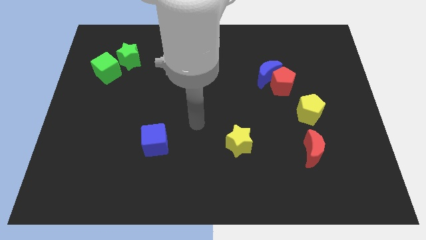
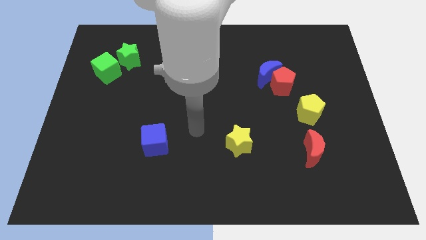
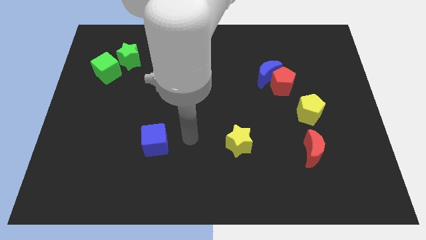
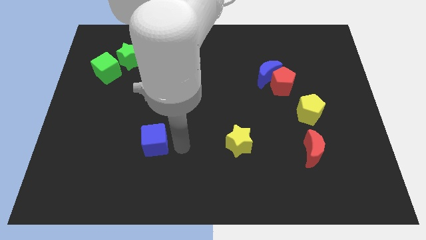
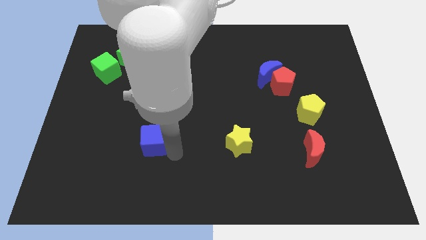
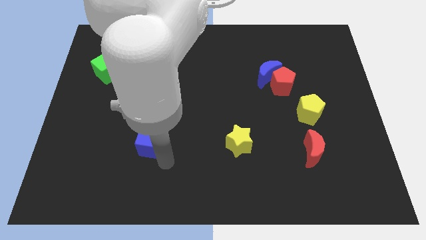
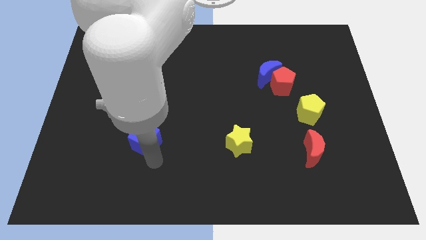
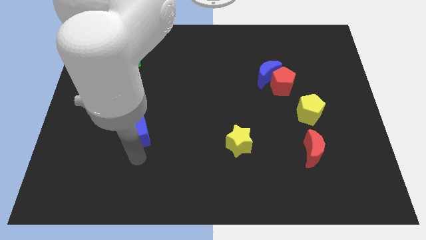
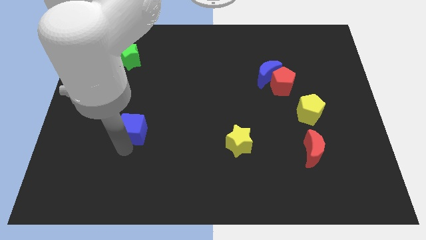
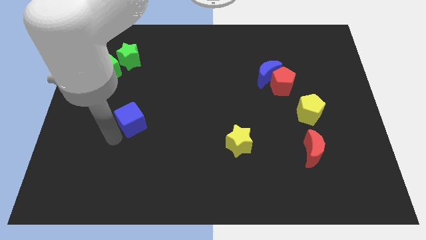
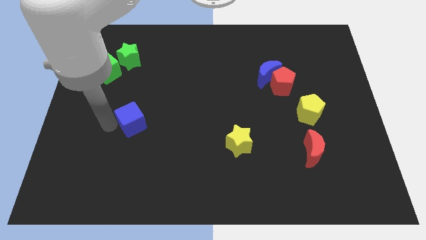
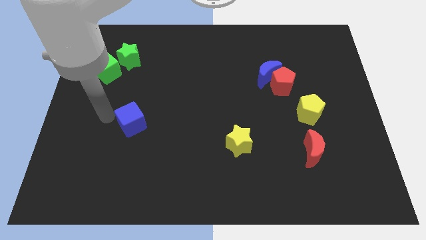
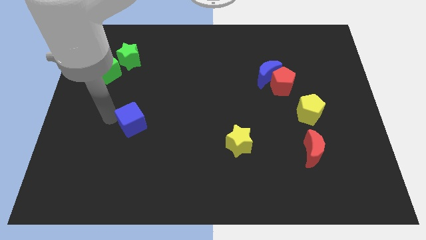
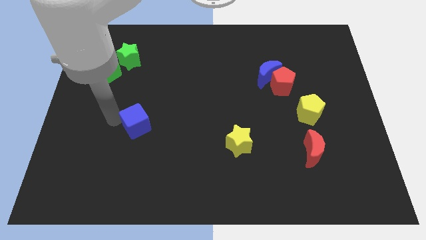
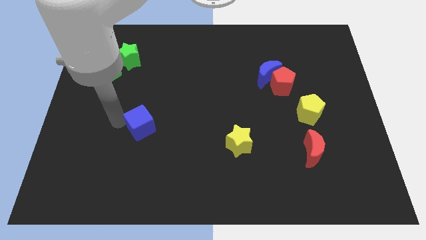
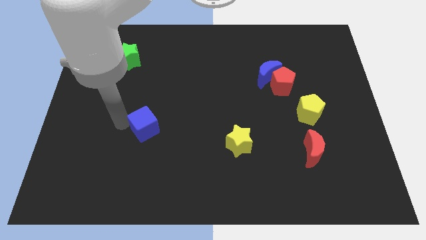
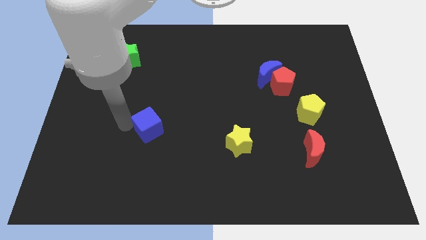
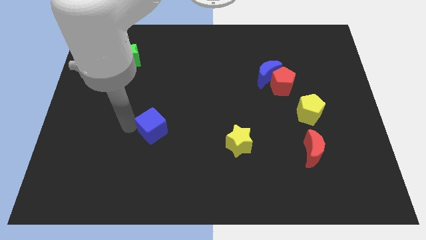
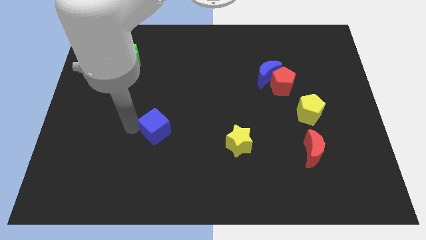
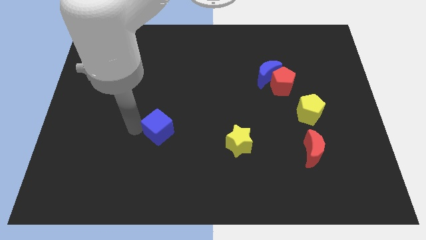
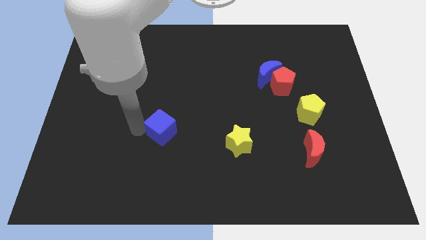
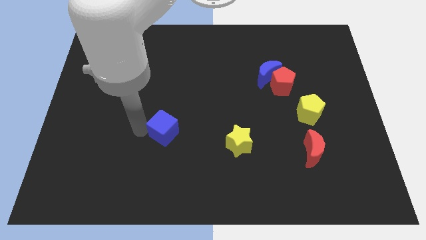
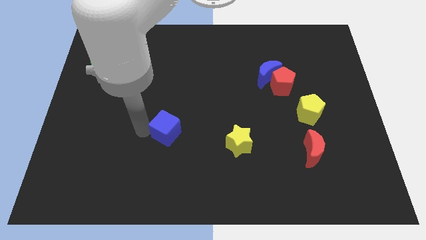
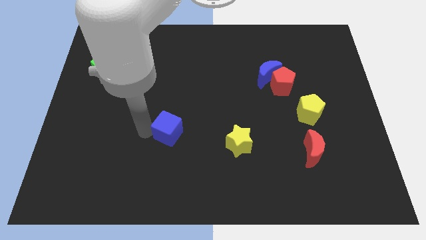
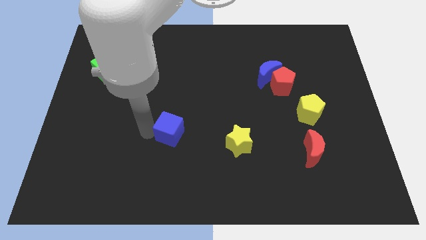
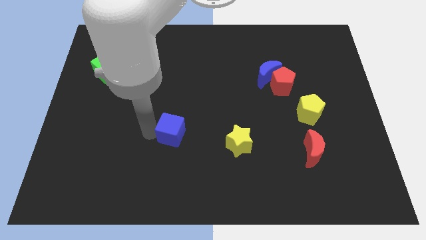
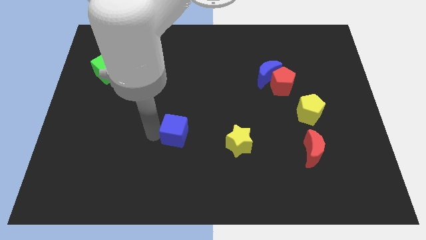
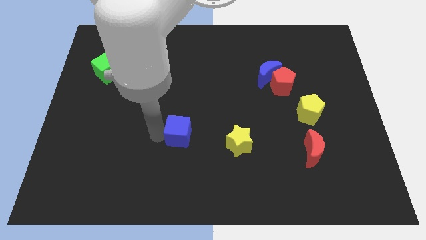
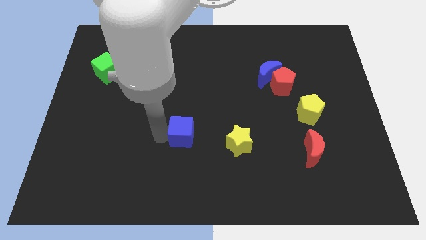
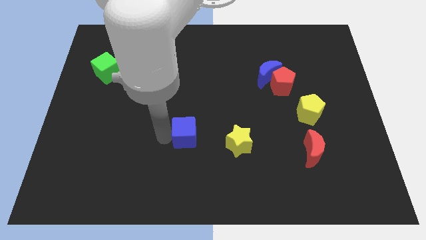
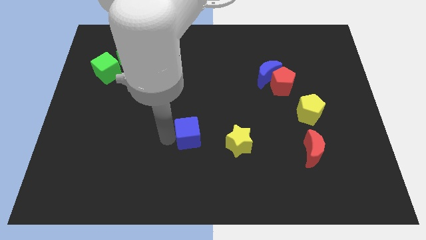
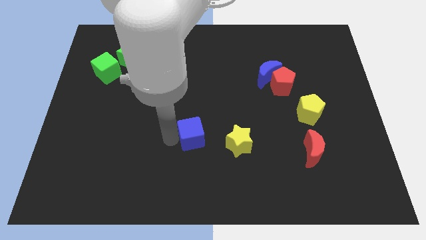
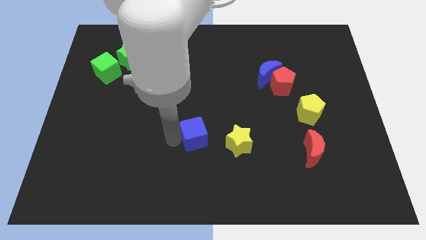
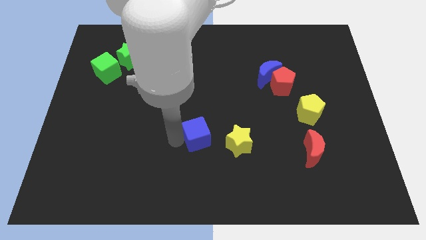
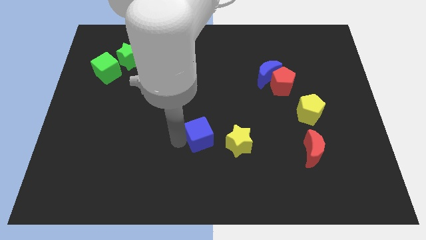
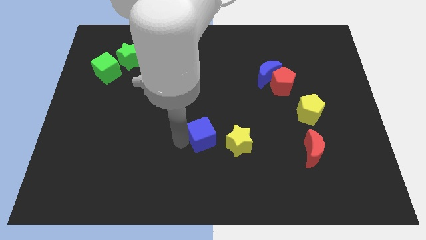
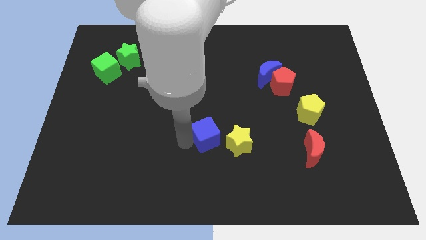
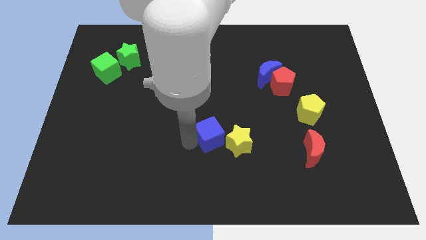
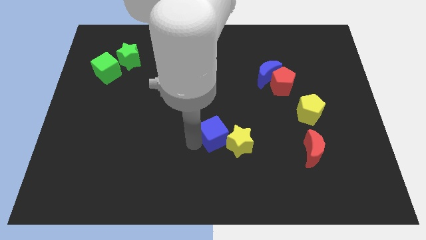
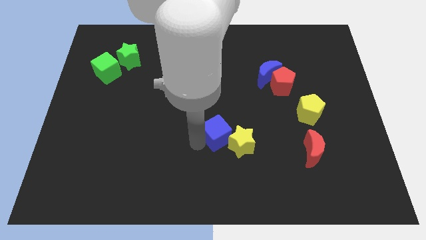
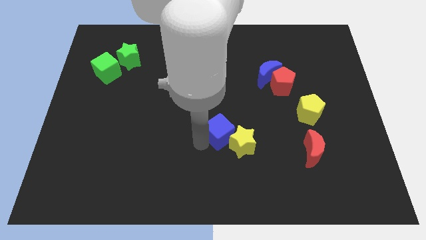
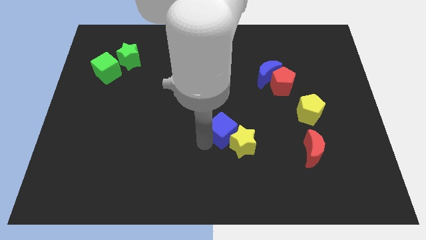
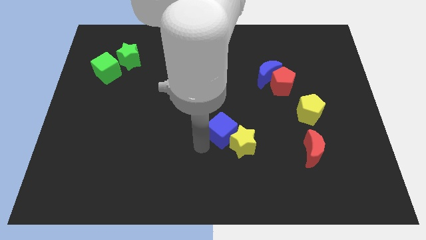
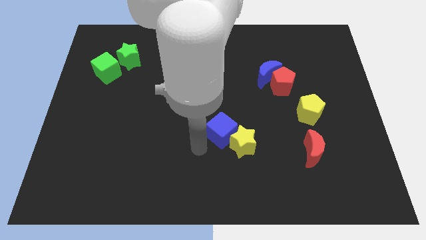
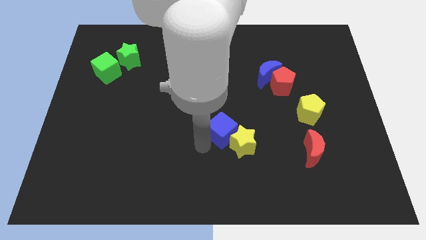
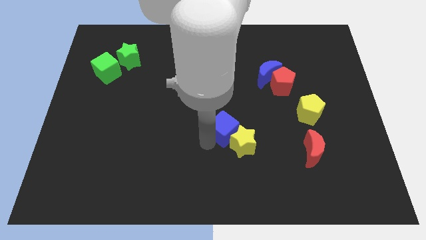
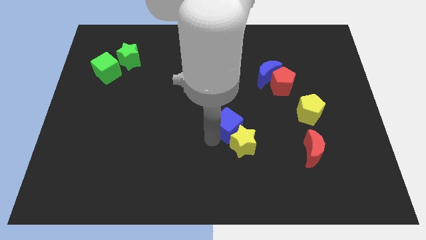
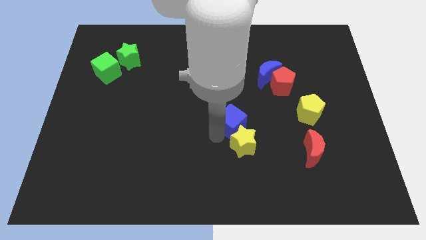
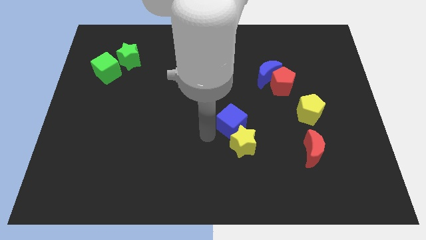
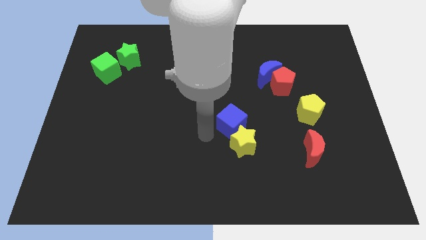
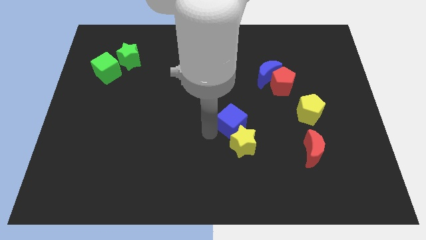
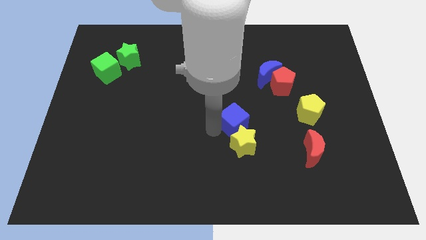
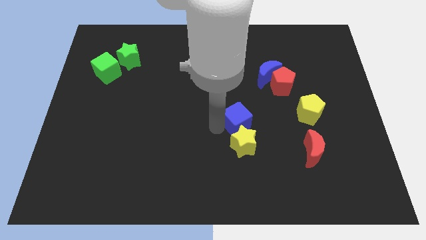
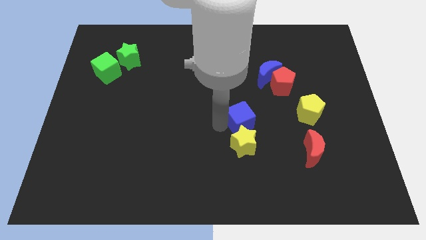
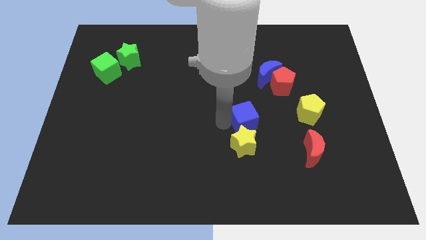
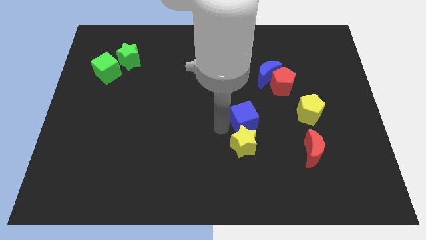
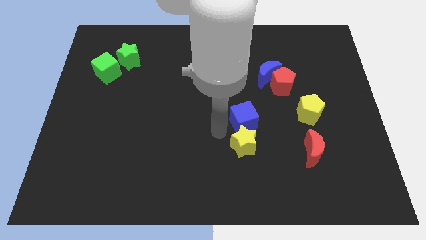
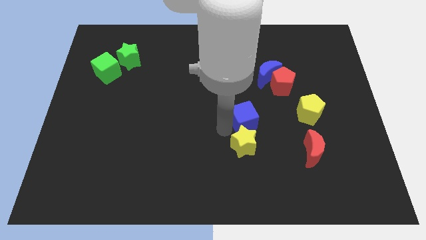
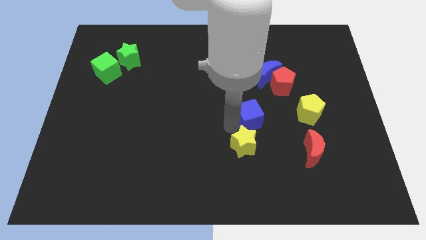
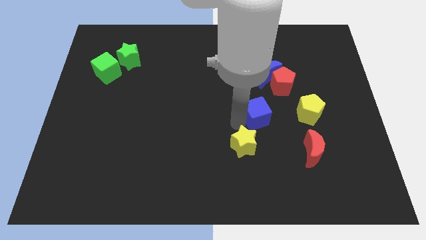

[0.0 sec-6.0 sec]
put the blue cube to the bottom side of the blue moon

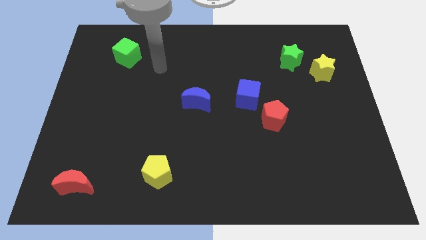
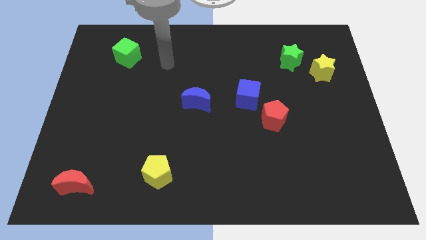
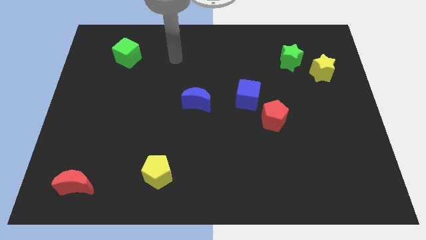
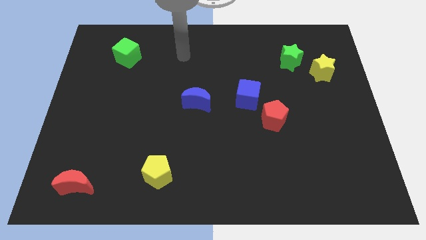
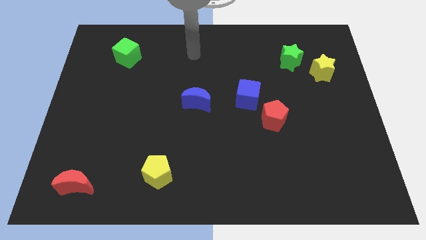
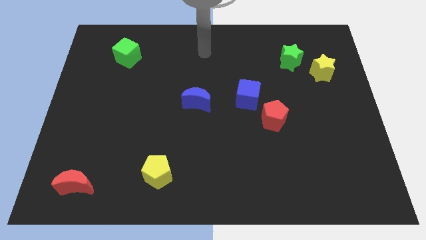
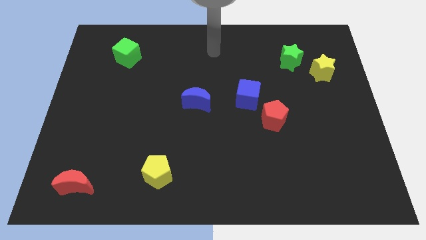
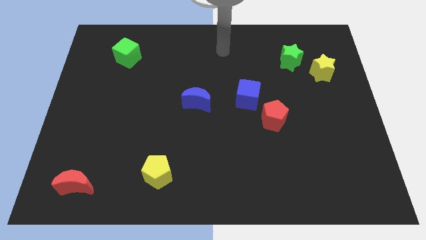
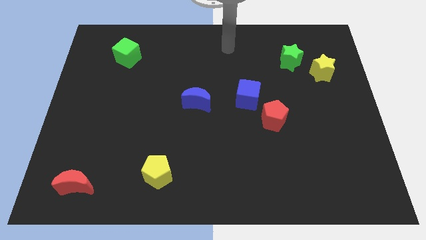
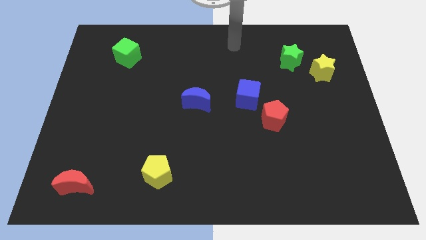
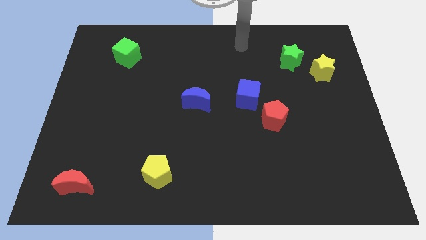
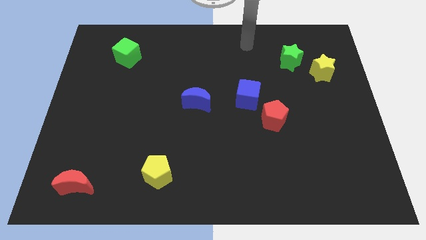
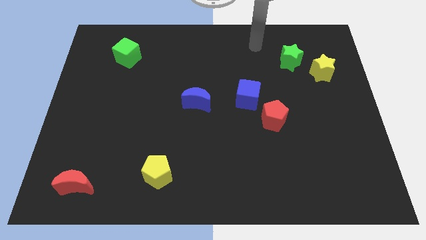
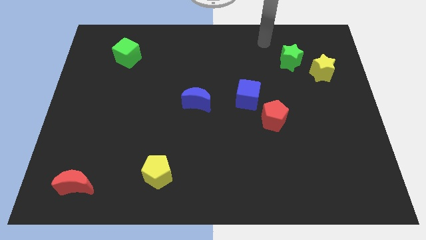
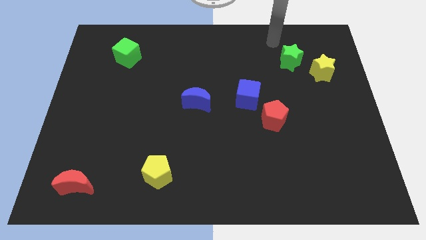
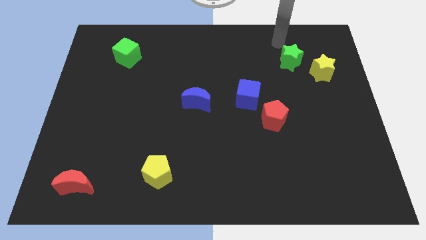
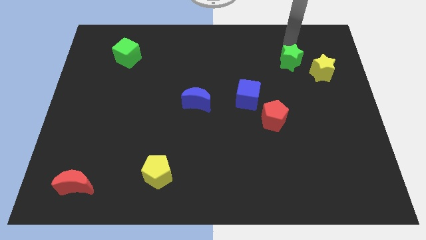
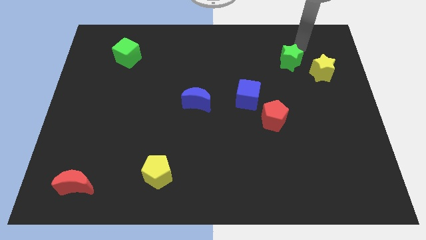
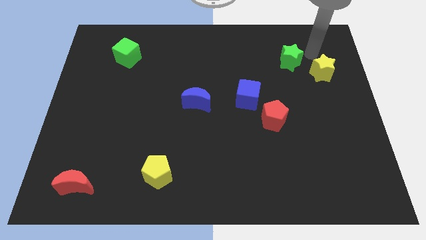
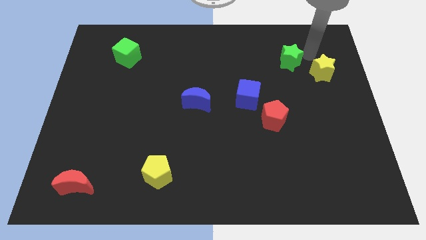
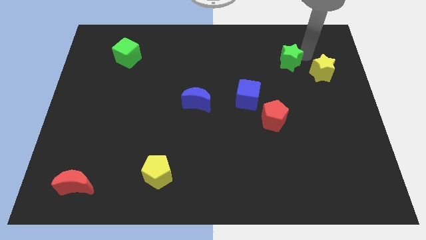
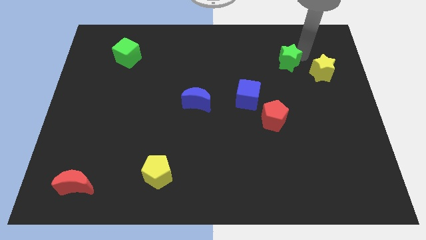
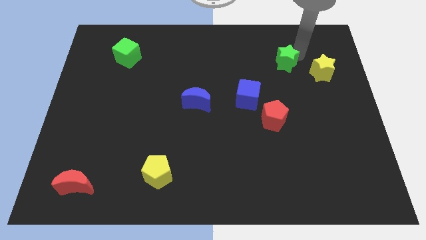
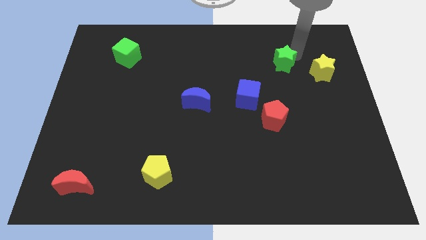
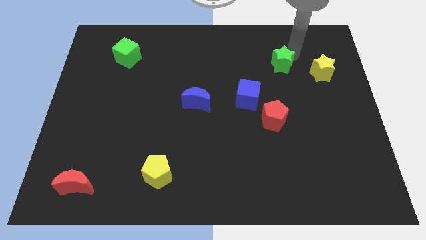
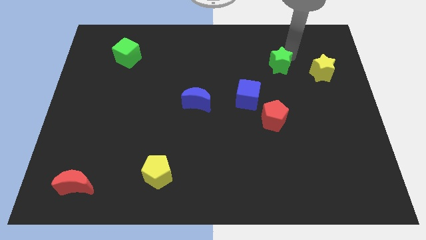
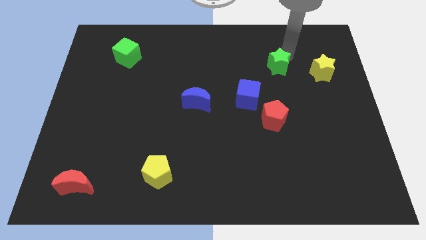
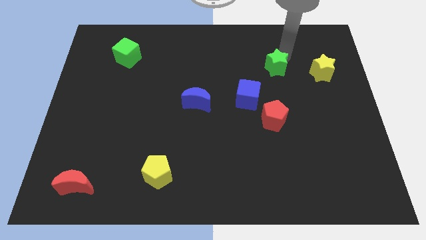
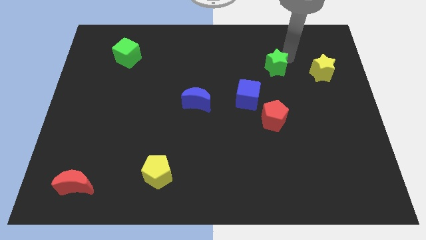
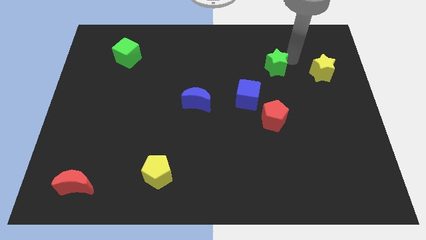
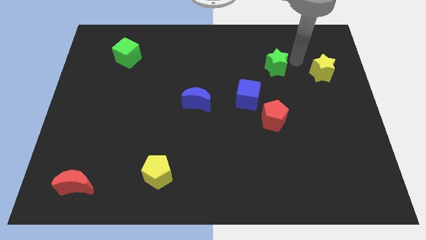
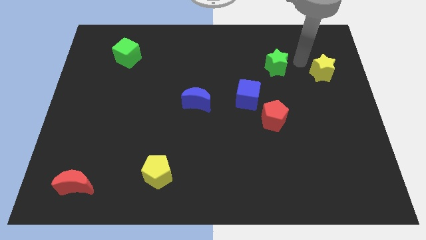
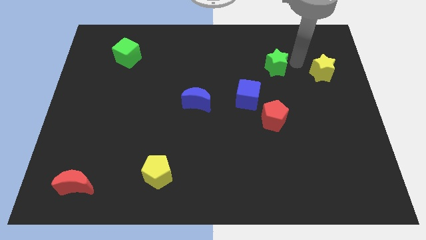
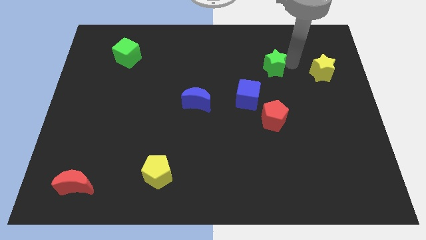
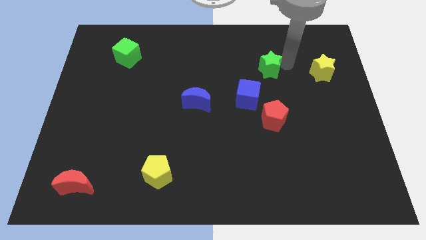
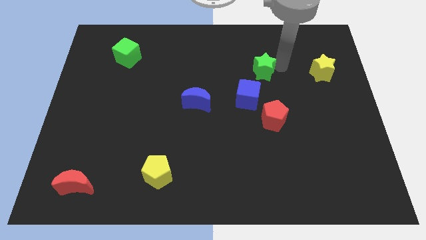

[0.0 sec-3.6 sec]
put the green star above the blue cube
